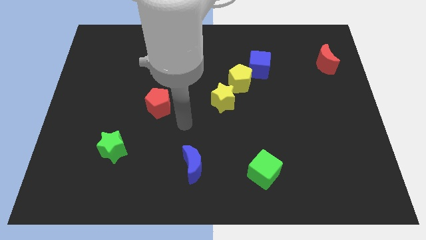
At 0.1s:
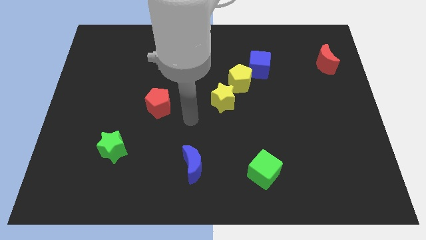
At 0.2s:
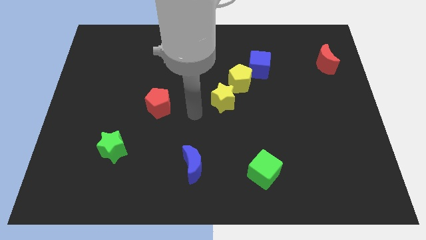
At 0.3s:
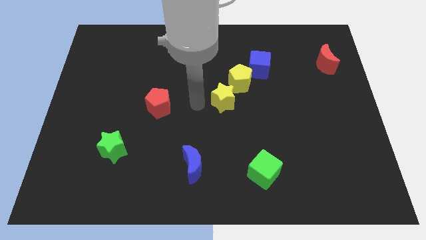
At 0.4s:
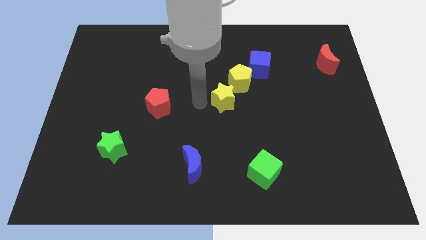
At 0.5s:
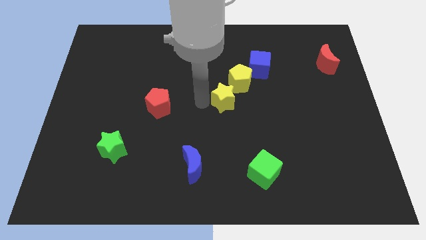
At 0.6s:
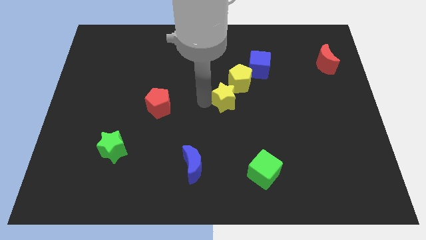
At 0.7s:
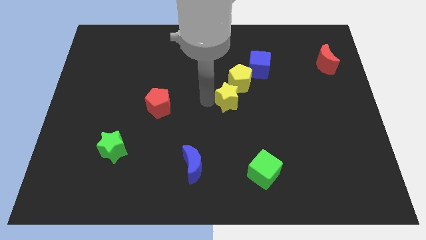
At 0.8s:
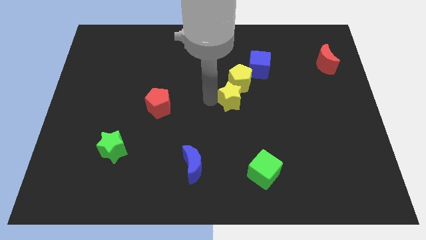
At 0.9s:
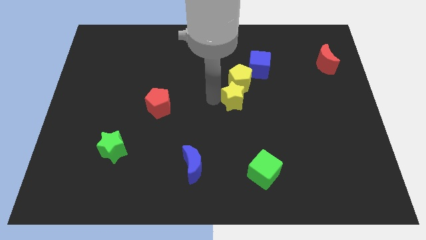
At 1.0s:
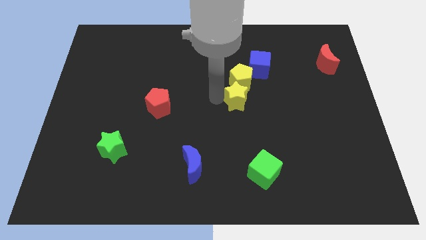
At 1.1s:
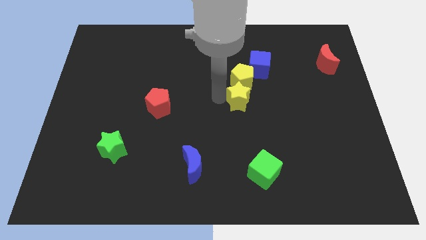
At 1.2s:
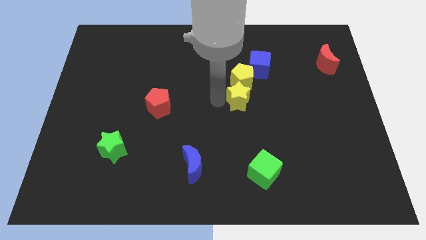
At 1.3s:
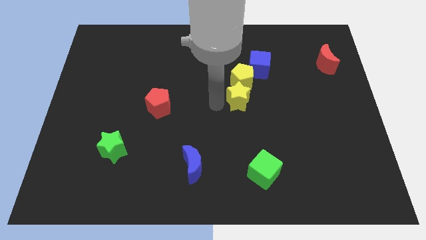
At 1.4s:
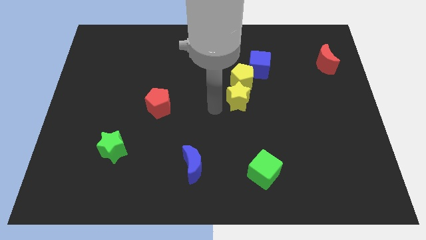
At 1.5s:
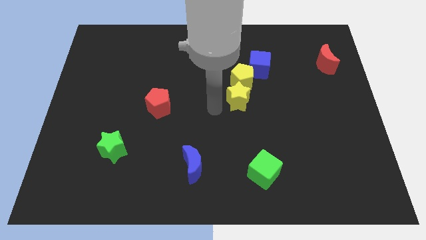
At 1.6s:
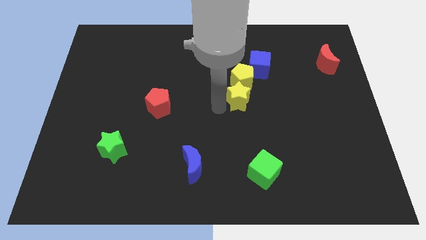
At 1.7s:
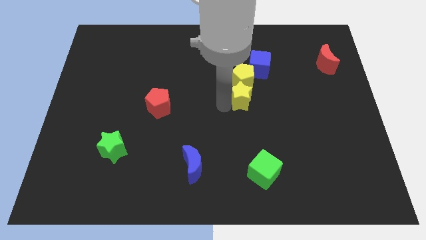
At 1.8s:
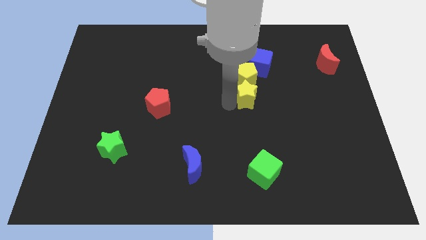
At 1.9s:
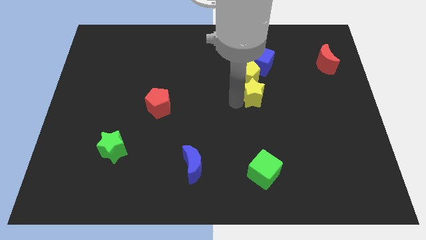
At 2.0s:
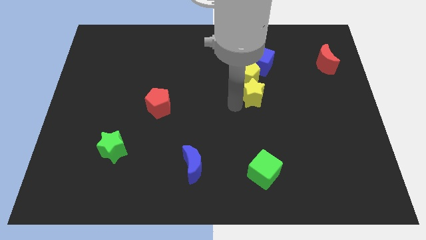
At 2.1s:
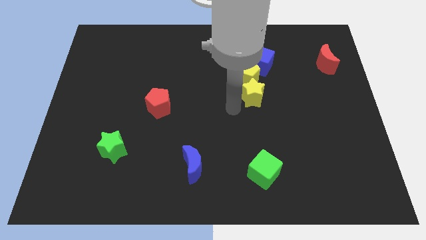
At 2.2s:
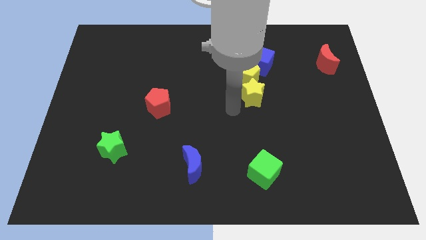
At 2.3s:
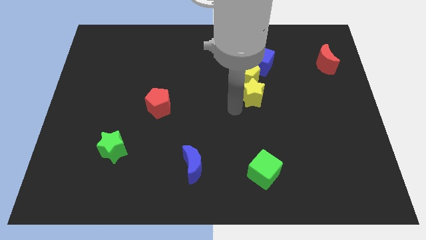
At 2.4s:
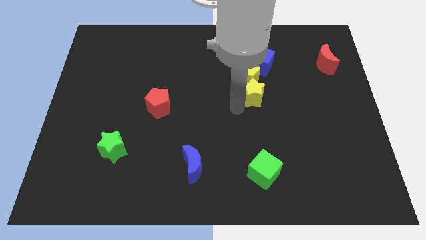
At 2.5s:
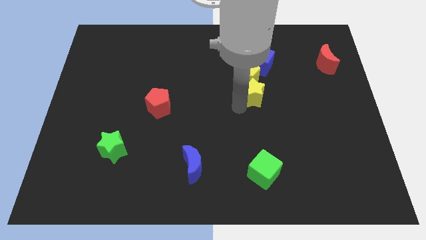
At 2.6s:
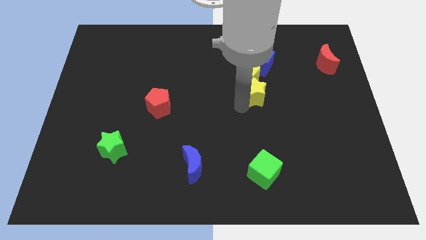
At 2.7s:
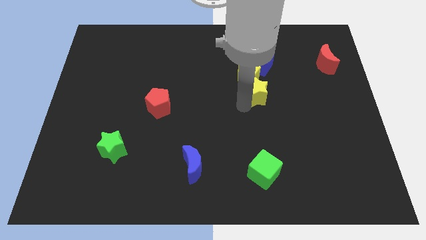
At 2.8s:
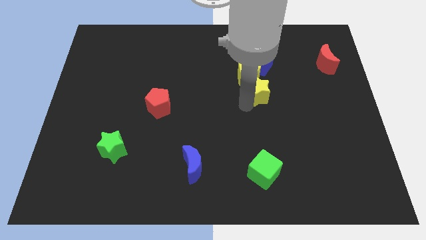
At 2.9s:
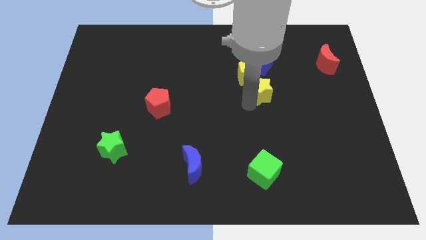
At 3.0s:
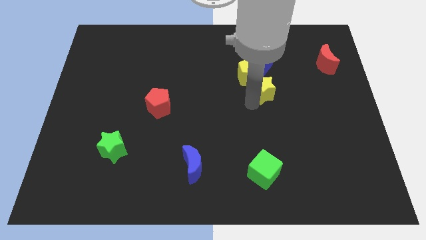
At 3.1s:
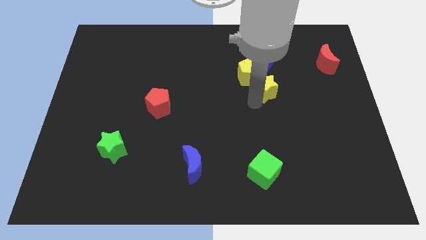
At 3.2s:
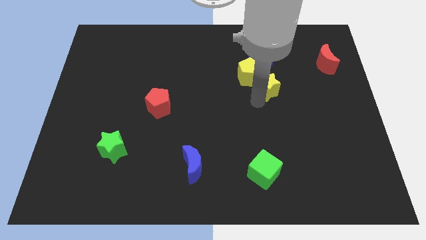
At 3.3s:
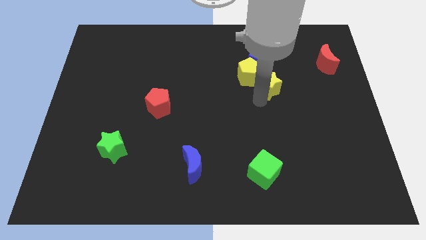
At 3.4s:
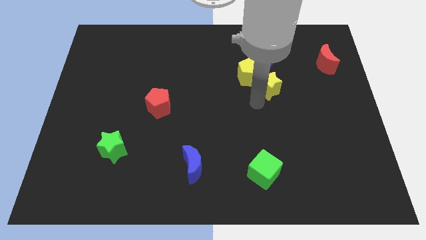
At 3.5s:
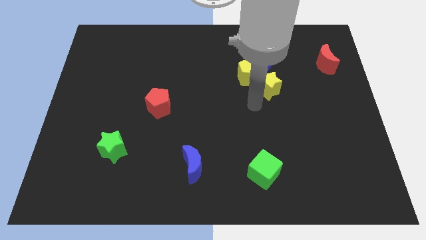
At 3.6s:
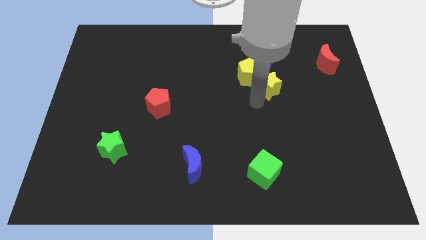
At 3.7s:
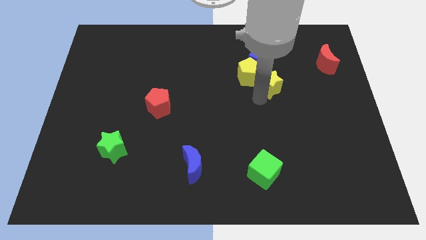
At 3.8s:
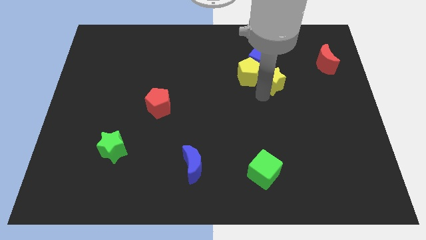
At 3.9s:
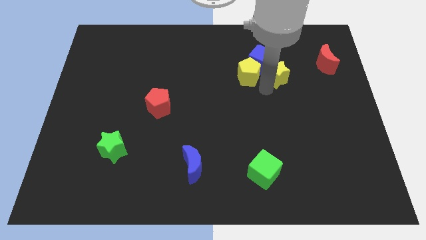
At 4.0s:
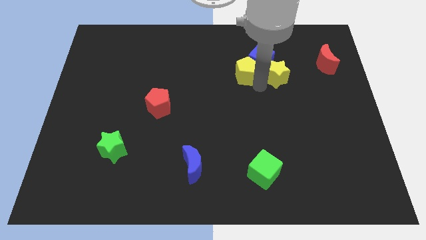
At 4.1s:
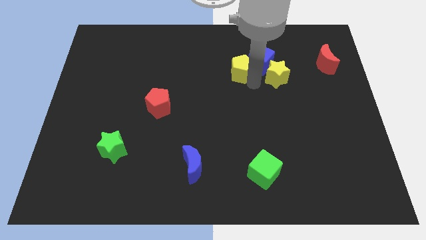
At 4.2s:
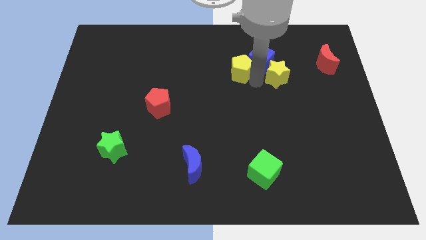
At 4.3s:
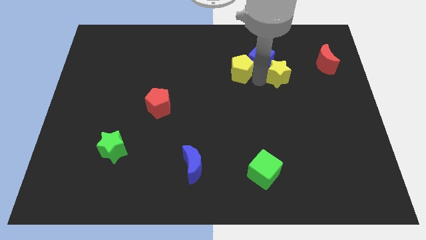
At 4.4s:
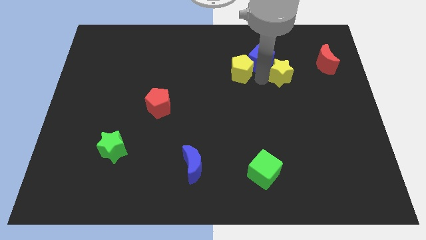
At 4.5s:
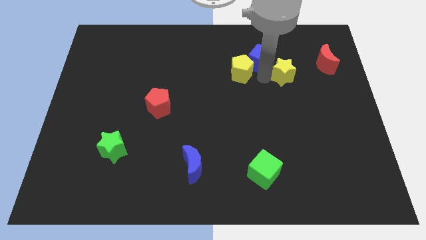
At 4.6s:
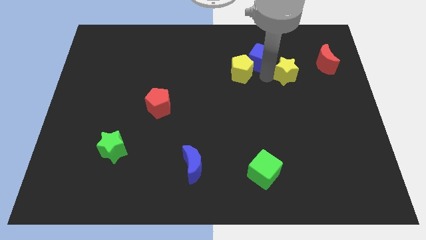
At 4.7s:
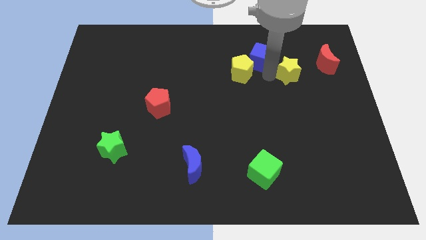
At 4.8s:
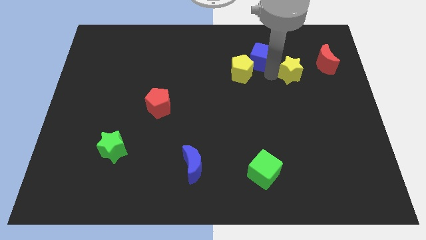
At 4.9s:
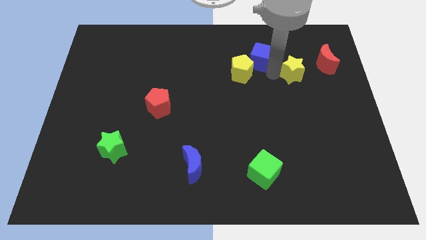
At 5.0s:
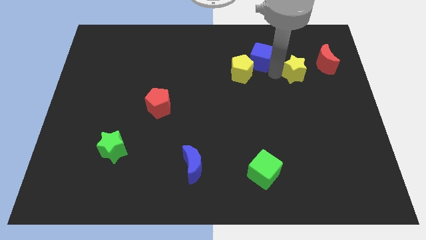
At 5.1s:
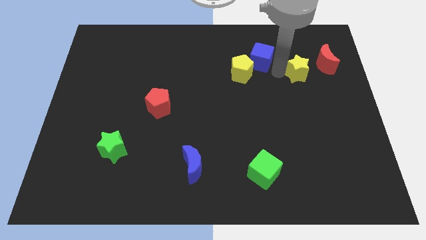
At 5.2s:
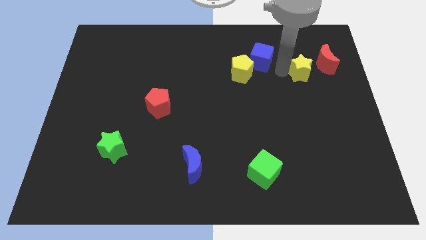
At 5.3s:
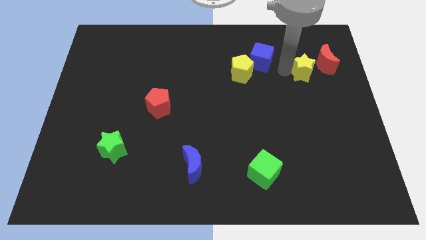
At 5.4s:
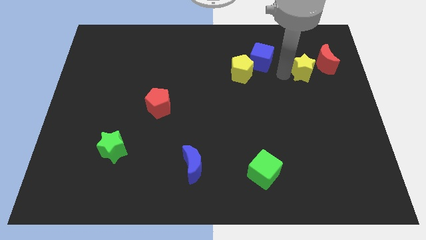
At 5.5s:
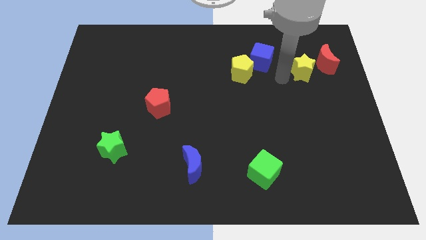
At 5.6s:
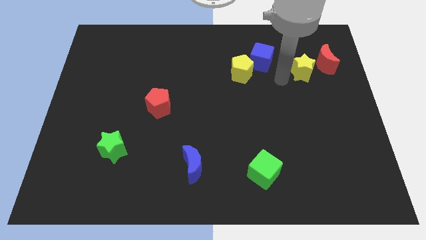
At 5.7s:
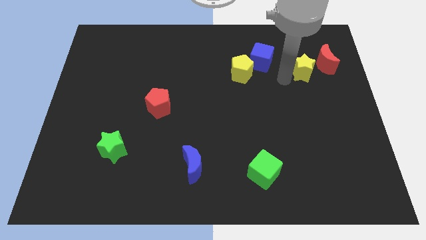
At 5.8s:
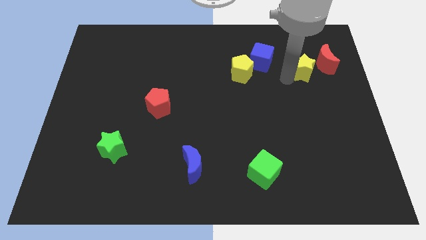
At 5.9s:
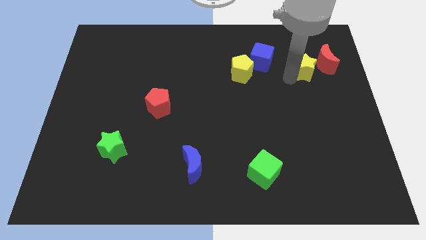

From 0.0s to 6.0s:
put the yellow star to the red moon

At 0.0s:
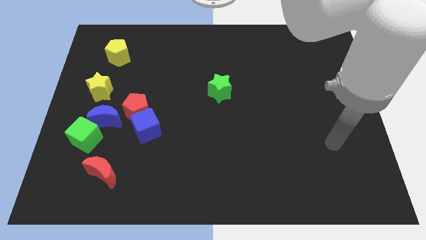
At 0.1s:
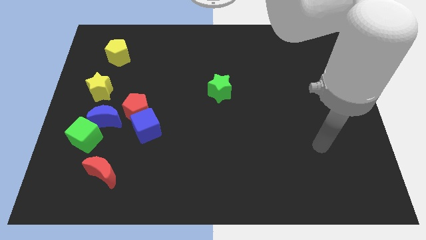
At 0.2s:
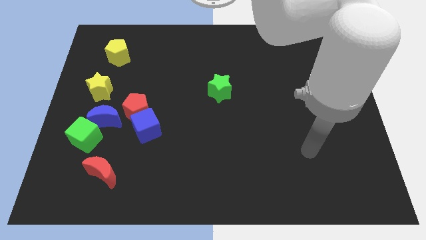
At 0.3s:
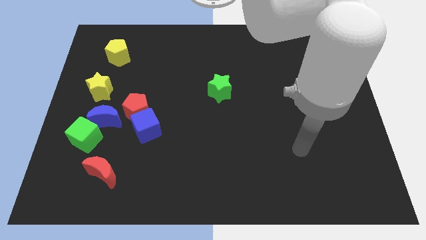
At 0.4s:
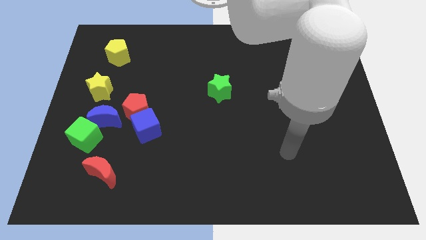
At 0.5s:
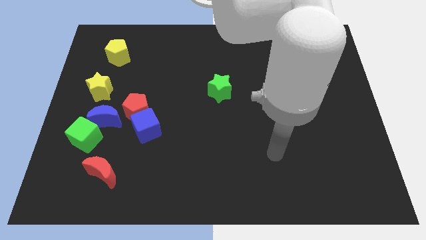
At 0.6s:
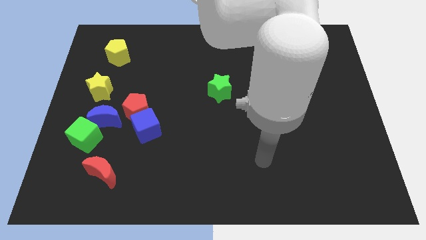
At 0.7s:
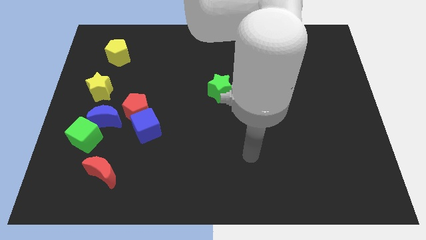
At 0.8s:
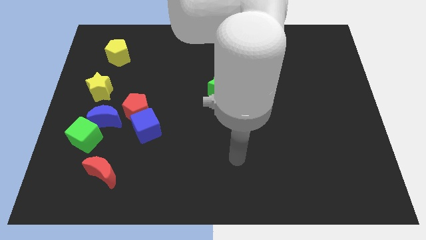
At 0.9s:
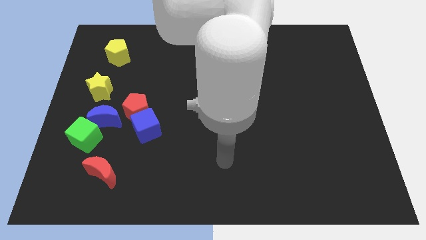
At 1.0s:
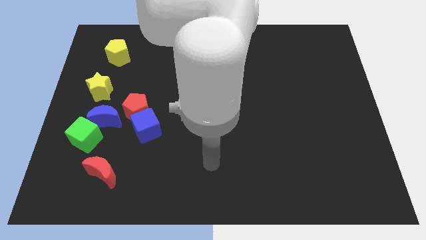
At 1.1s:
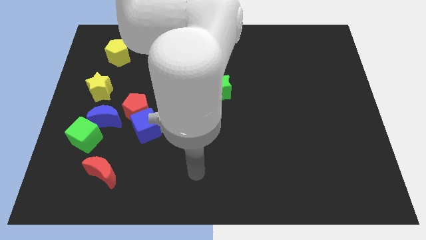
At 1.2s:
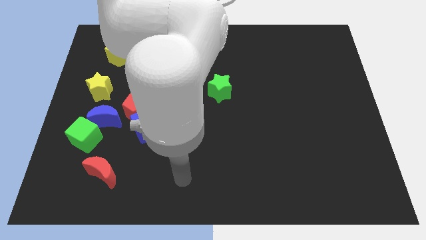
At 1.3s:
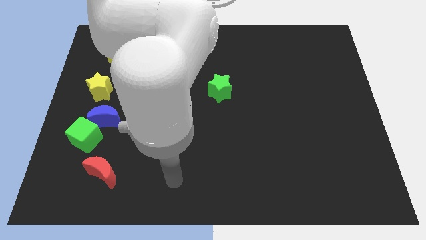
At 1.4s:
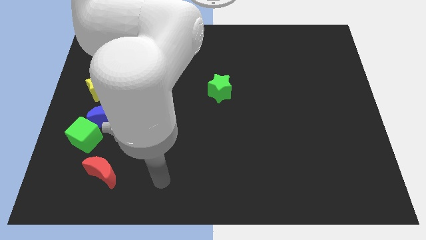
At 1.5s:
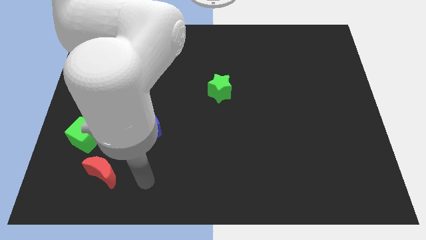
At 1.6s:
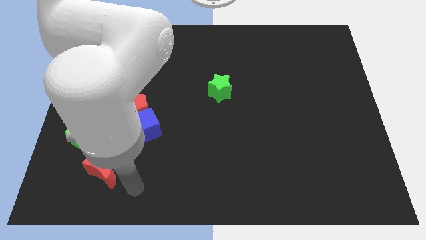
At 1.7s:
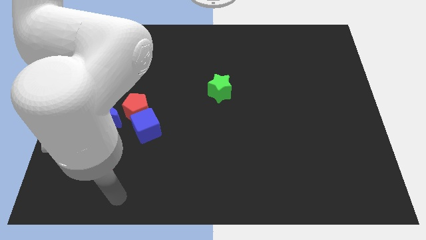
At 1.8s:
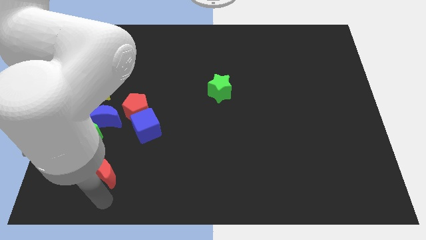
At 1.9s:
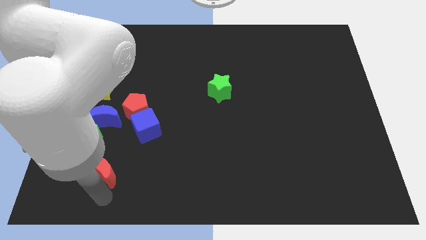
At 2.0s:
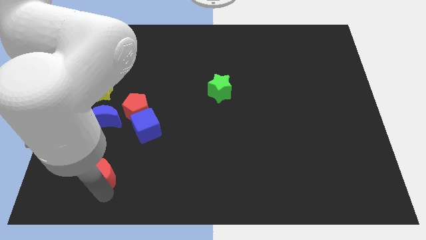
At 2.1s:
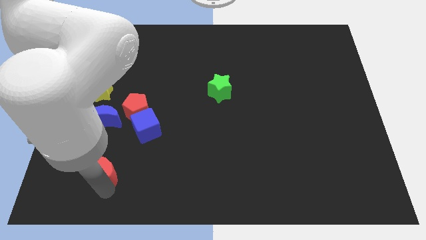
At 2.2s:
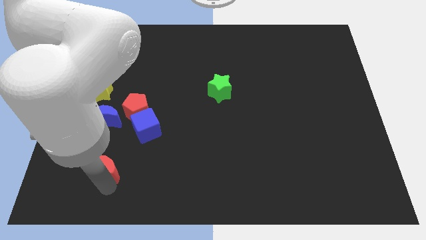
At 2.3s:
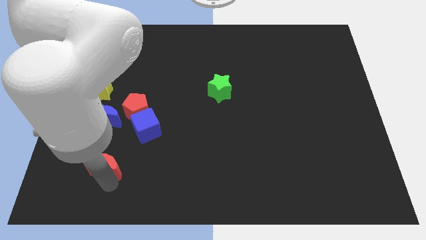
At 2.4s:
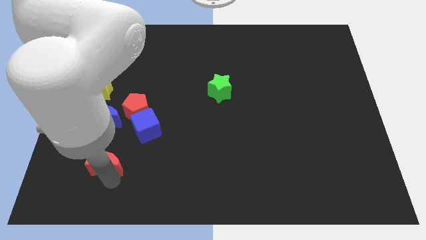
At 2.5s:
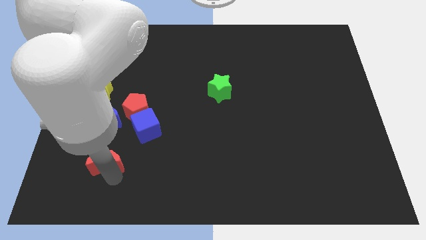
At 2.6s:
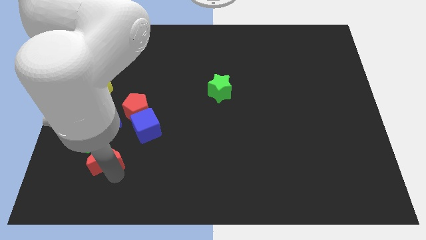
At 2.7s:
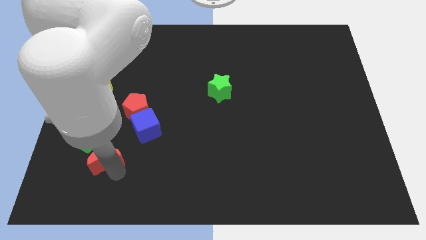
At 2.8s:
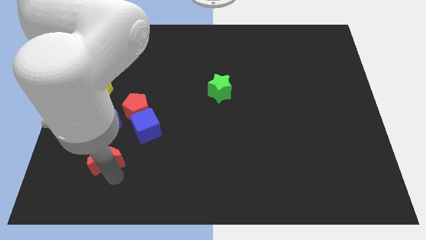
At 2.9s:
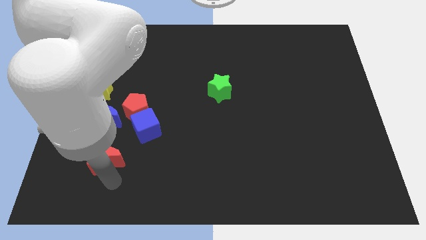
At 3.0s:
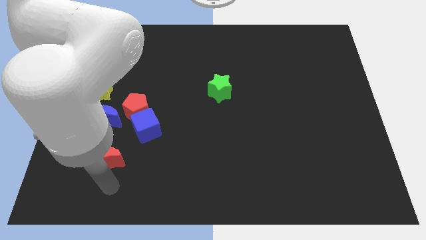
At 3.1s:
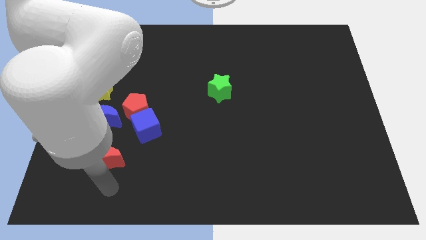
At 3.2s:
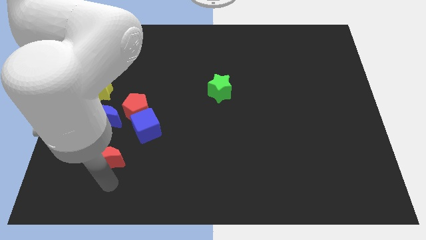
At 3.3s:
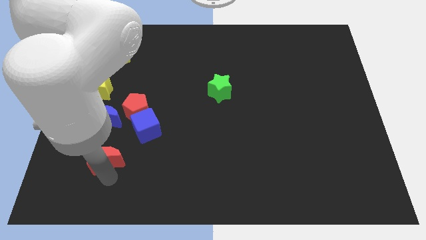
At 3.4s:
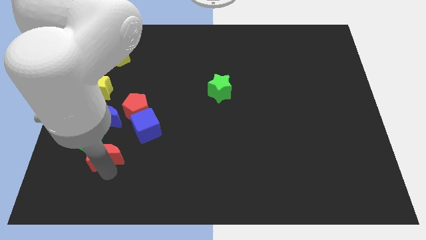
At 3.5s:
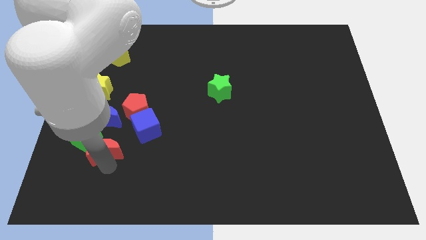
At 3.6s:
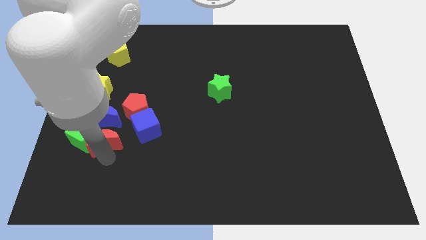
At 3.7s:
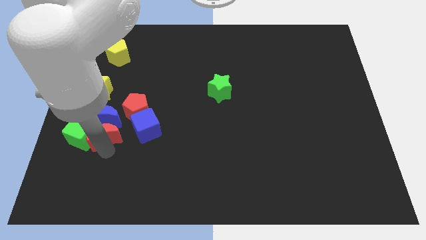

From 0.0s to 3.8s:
put the red moon towards the blue moon
